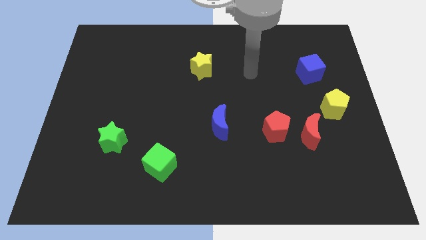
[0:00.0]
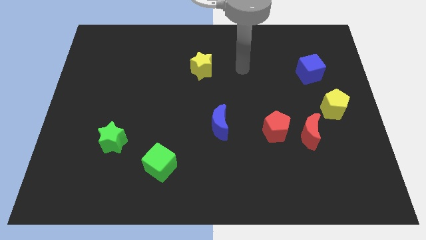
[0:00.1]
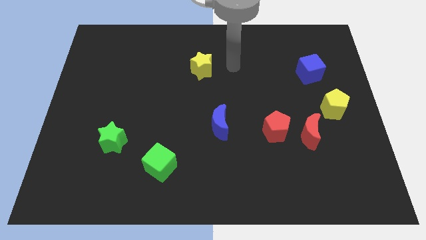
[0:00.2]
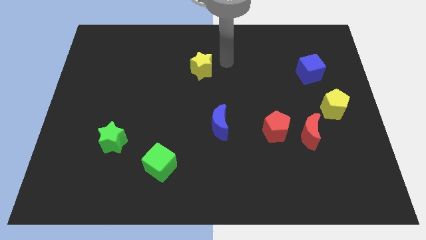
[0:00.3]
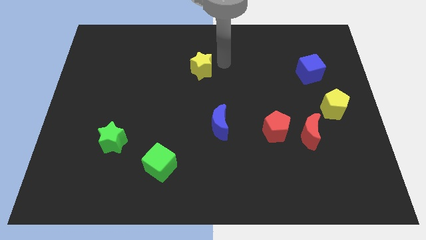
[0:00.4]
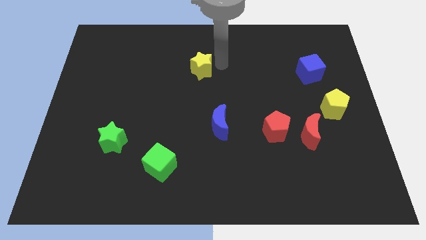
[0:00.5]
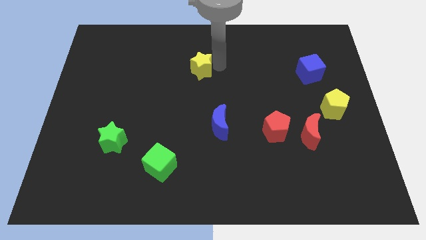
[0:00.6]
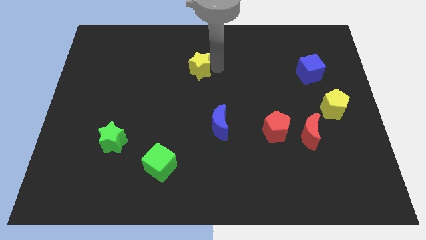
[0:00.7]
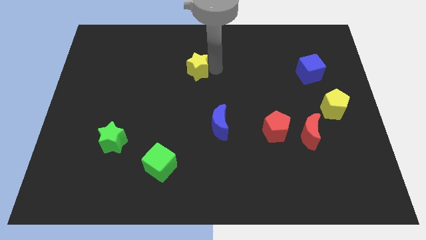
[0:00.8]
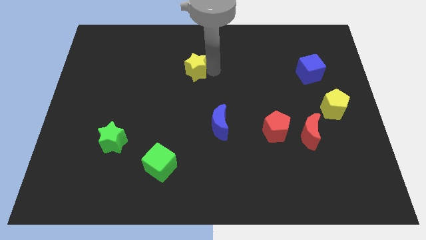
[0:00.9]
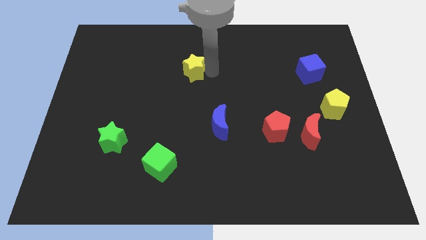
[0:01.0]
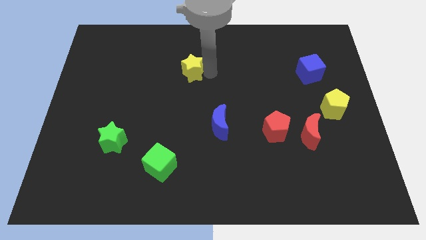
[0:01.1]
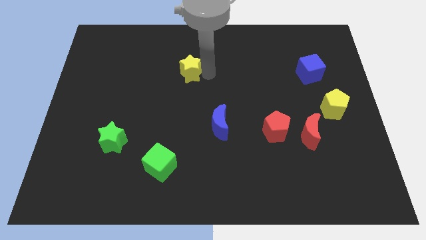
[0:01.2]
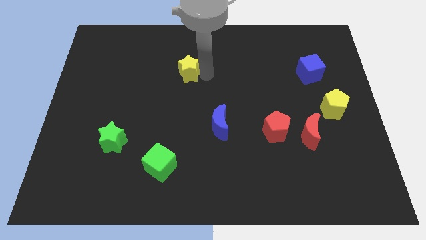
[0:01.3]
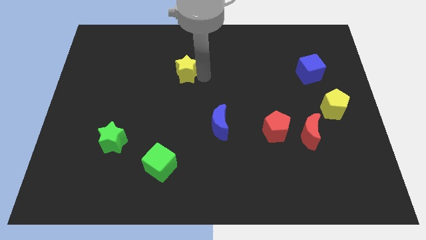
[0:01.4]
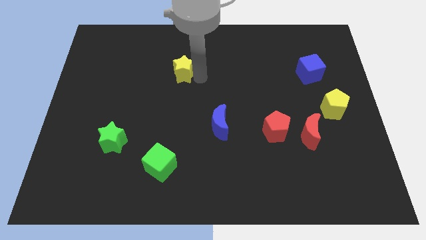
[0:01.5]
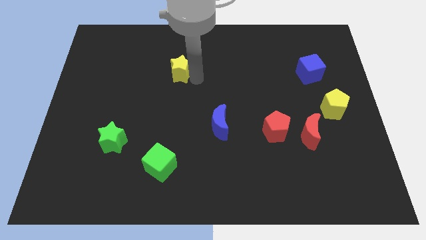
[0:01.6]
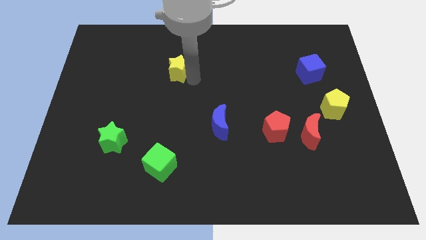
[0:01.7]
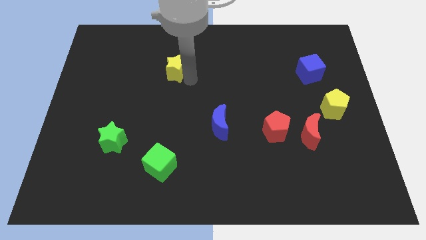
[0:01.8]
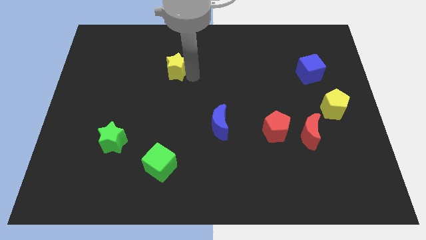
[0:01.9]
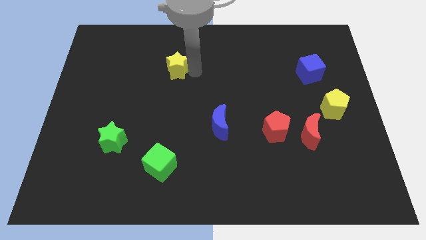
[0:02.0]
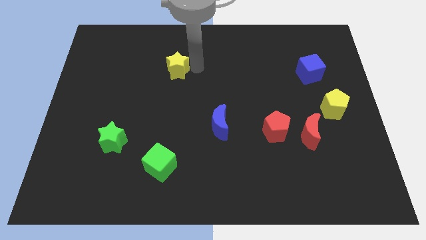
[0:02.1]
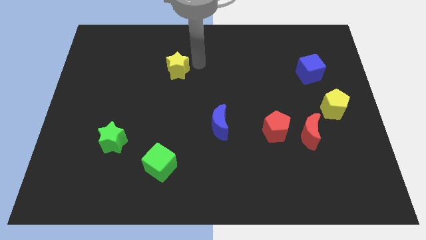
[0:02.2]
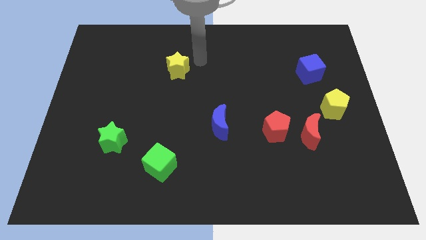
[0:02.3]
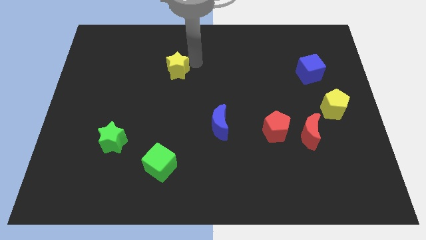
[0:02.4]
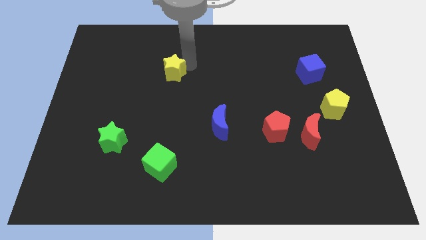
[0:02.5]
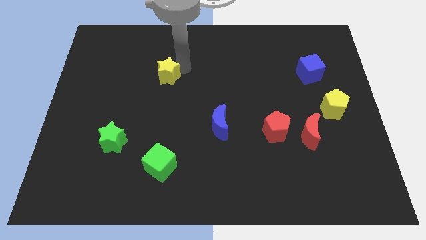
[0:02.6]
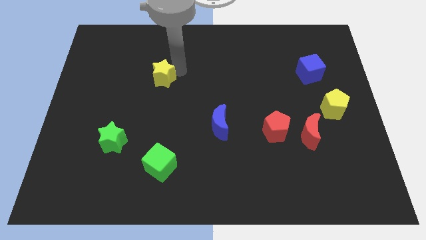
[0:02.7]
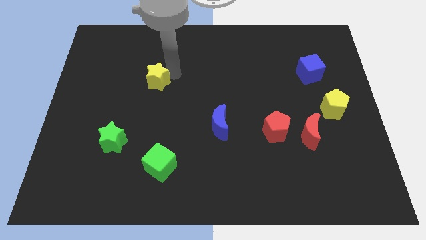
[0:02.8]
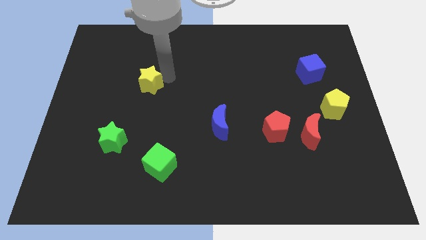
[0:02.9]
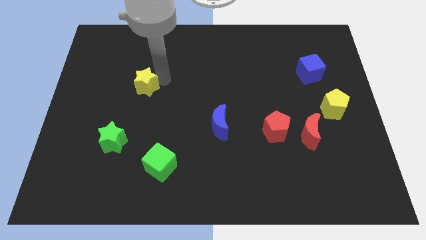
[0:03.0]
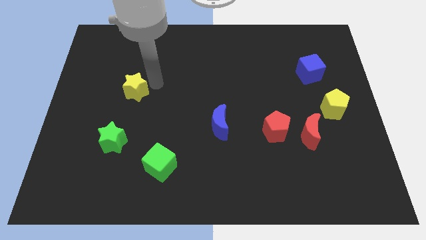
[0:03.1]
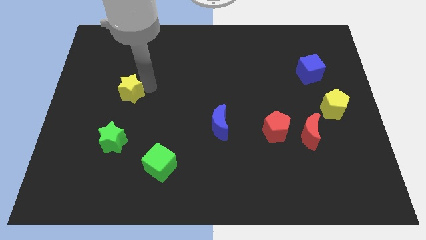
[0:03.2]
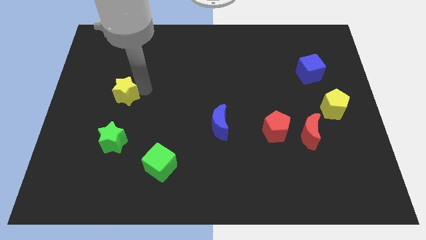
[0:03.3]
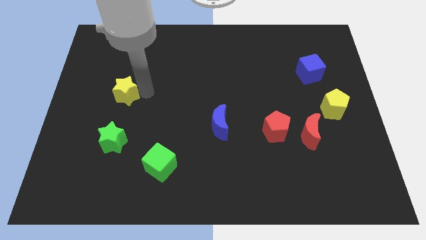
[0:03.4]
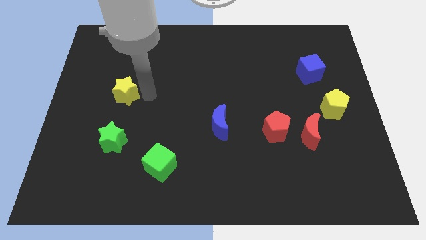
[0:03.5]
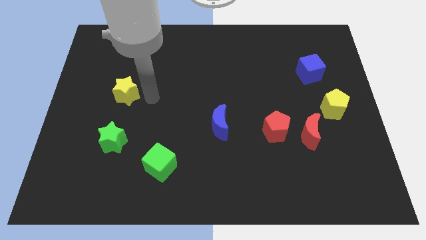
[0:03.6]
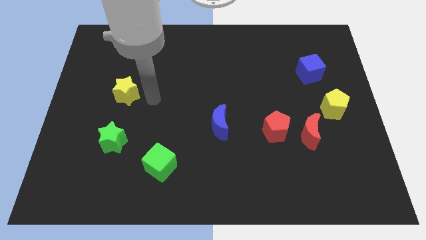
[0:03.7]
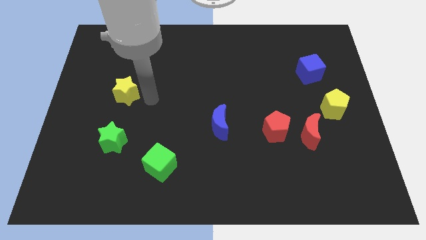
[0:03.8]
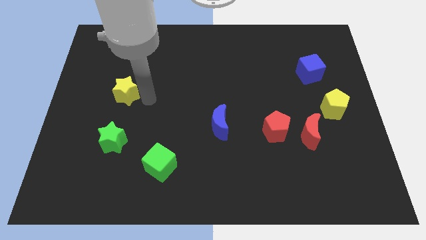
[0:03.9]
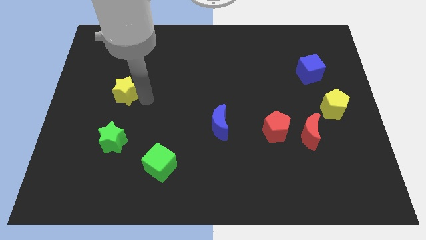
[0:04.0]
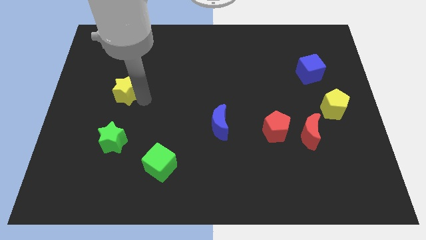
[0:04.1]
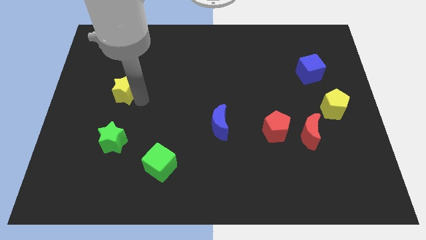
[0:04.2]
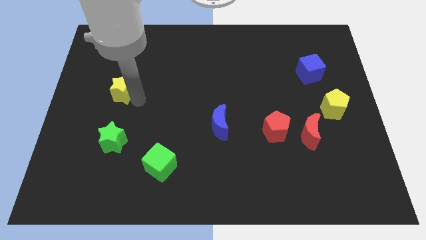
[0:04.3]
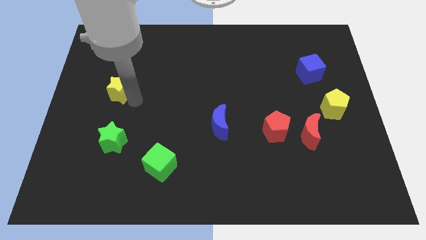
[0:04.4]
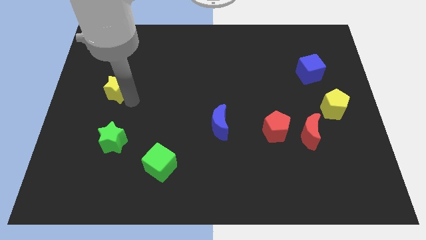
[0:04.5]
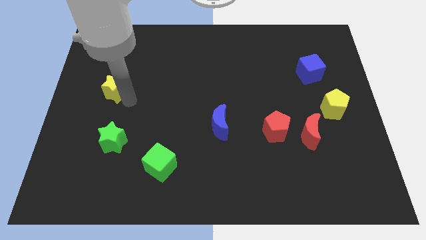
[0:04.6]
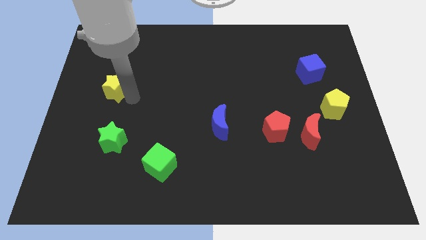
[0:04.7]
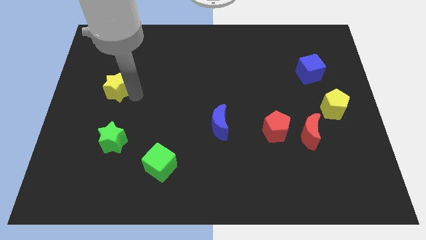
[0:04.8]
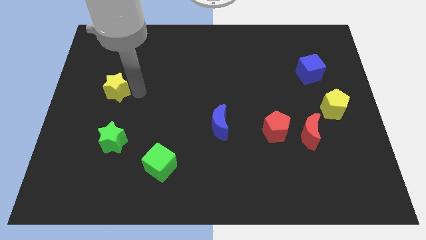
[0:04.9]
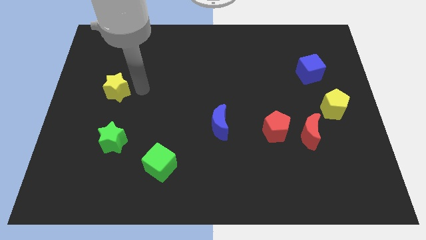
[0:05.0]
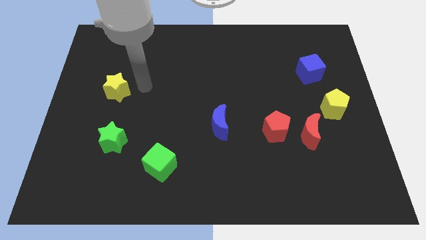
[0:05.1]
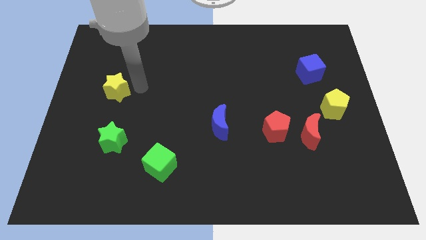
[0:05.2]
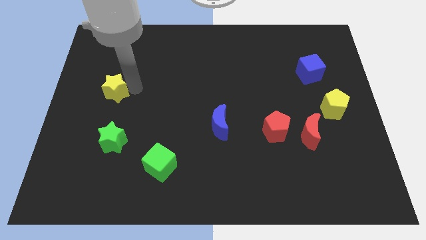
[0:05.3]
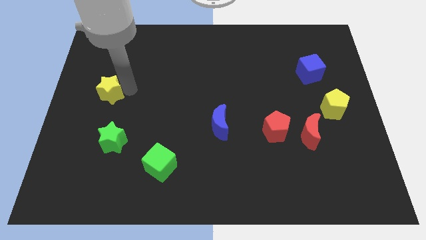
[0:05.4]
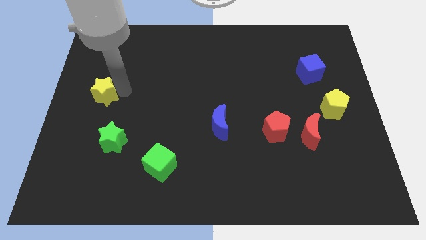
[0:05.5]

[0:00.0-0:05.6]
slide the yellow star to the left side

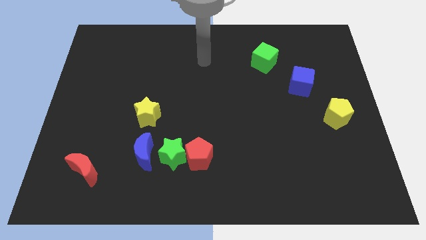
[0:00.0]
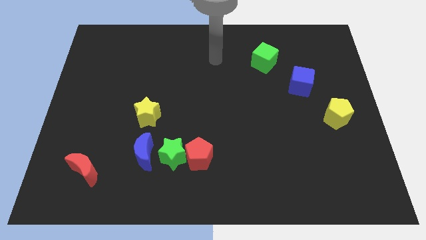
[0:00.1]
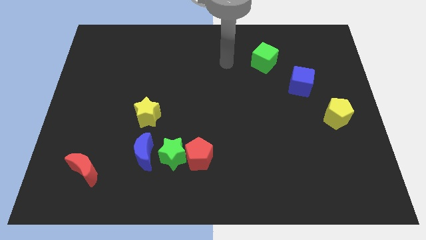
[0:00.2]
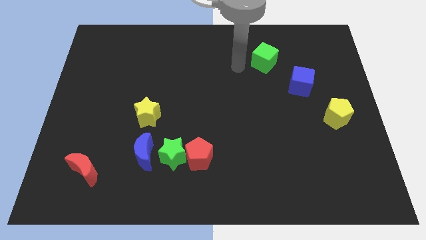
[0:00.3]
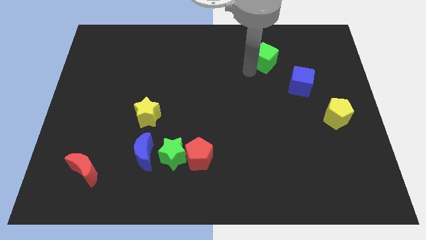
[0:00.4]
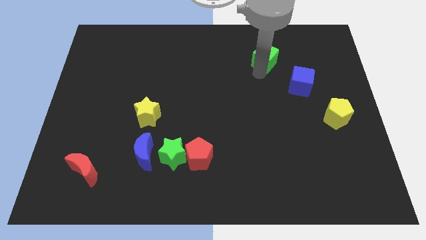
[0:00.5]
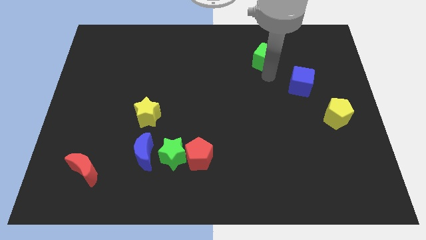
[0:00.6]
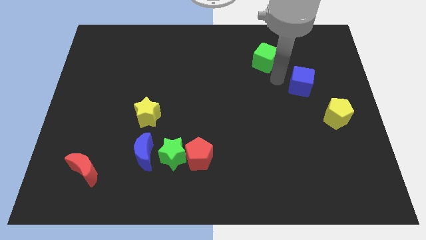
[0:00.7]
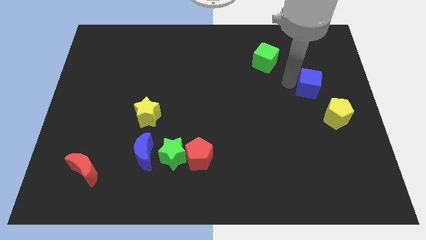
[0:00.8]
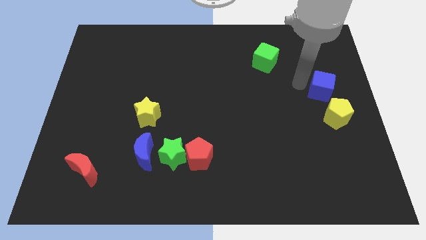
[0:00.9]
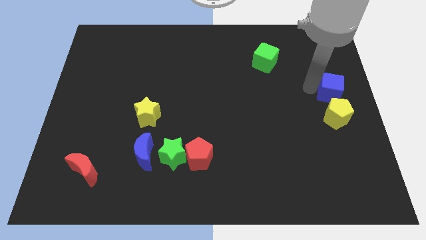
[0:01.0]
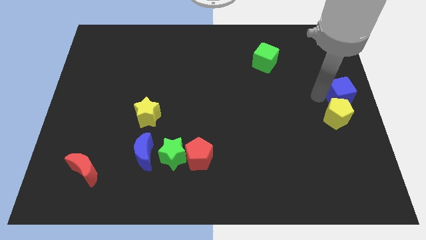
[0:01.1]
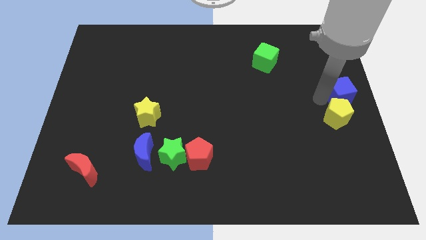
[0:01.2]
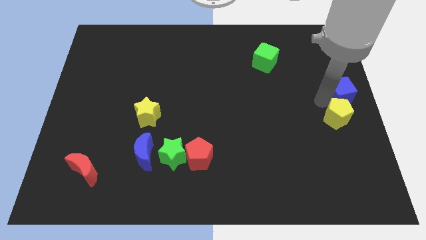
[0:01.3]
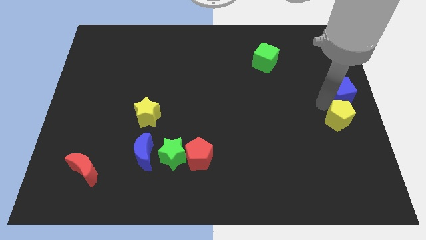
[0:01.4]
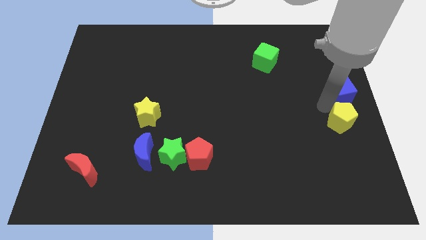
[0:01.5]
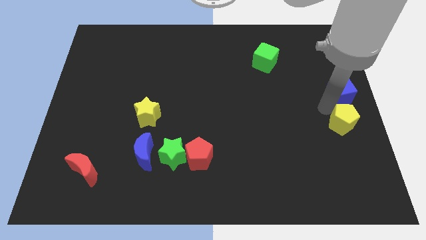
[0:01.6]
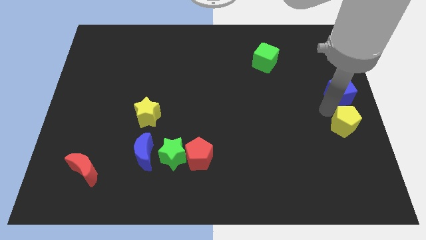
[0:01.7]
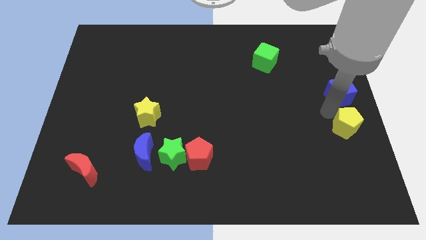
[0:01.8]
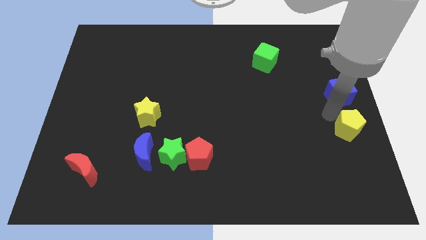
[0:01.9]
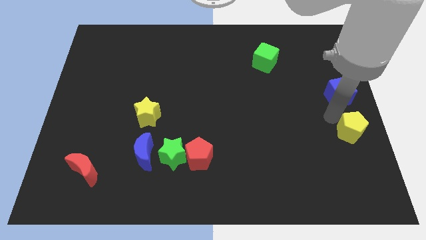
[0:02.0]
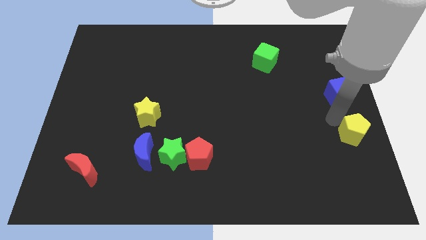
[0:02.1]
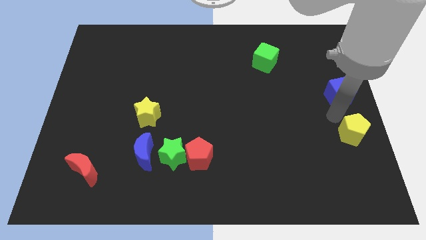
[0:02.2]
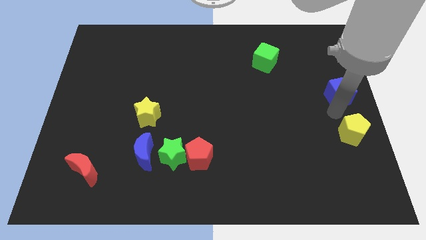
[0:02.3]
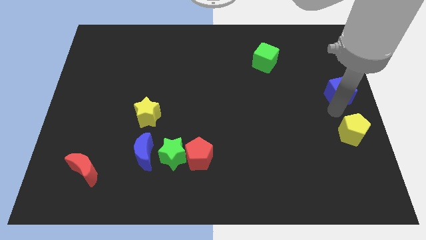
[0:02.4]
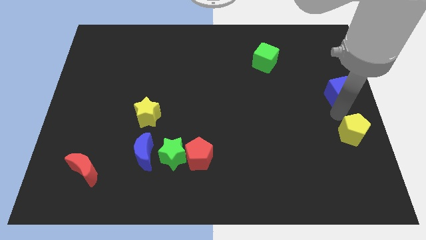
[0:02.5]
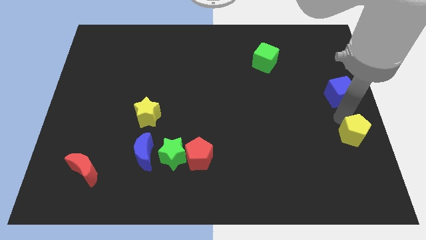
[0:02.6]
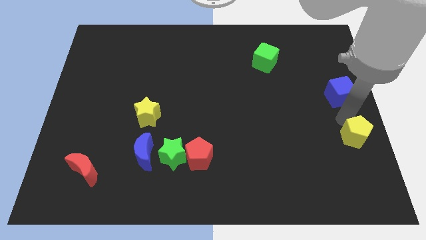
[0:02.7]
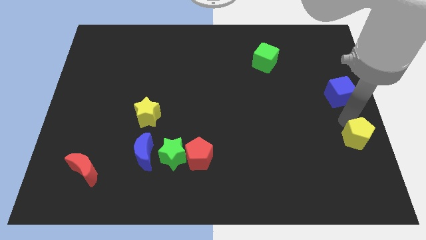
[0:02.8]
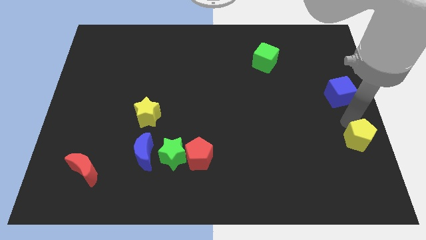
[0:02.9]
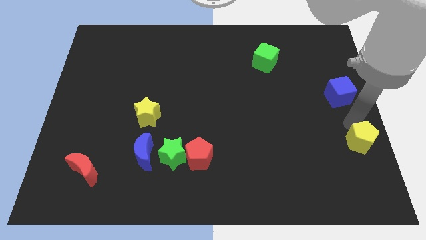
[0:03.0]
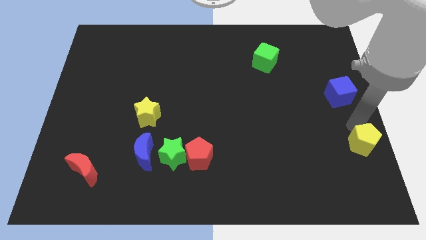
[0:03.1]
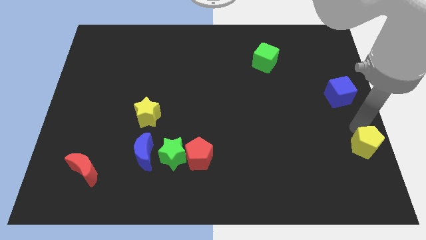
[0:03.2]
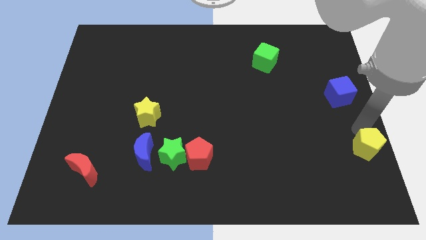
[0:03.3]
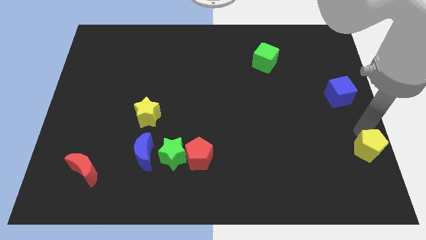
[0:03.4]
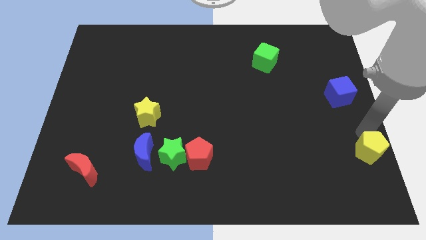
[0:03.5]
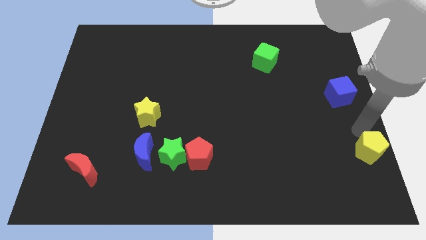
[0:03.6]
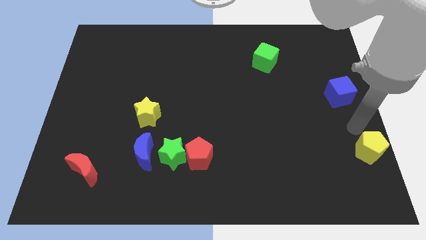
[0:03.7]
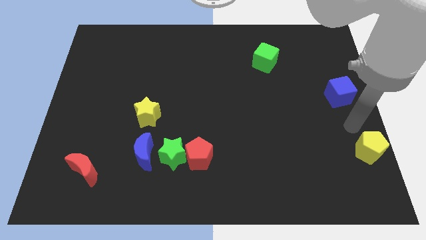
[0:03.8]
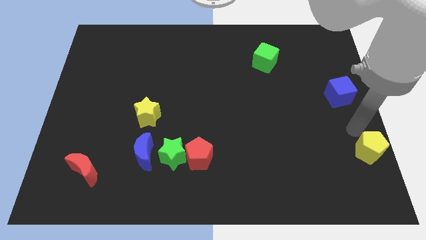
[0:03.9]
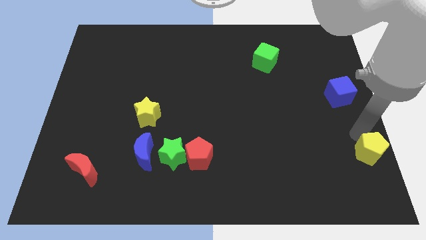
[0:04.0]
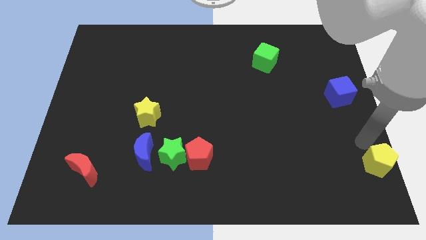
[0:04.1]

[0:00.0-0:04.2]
put the yellow pentagon to the bottom right corner
